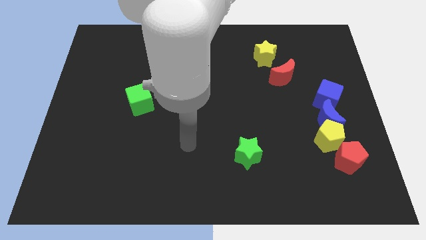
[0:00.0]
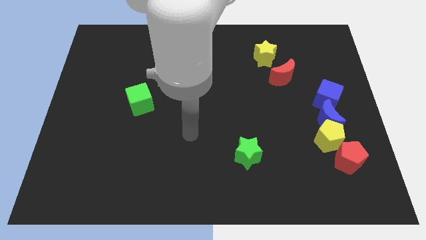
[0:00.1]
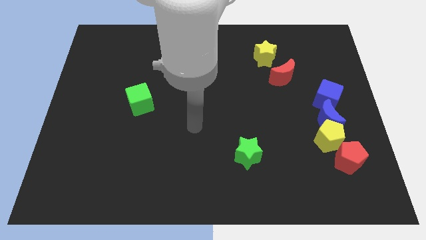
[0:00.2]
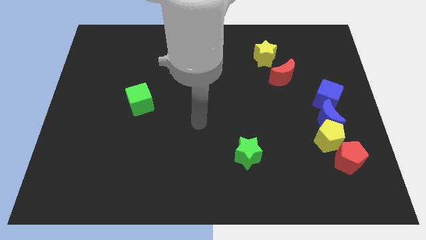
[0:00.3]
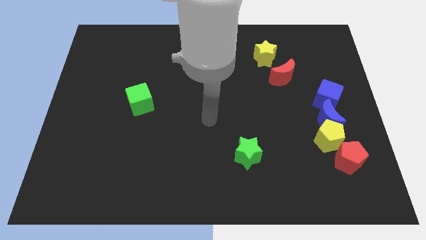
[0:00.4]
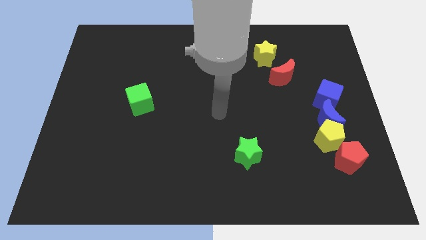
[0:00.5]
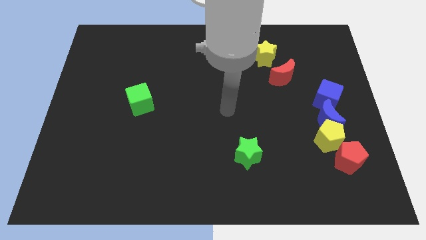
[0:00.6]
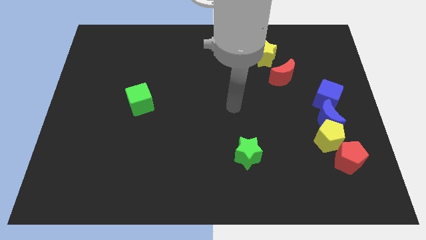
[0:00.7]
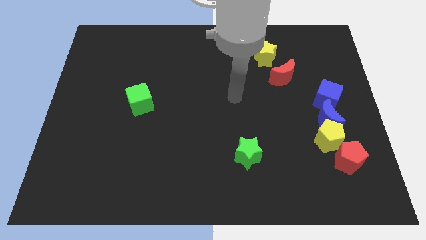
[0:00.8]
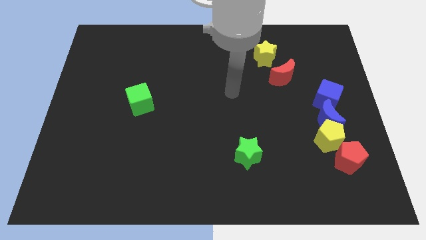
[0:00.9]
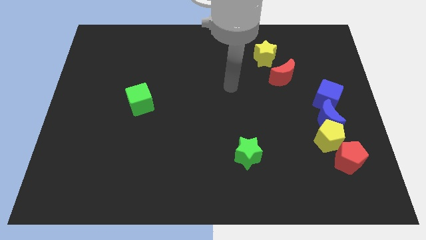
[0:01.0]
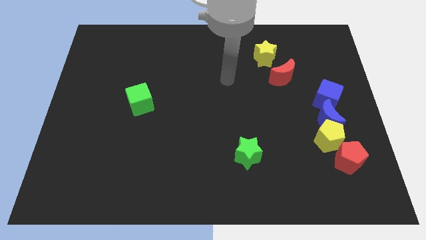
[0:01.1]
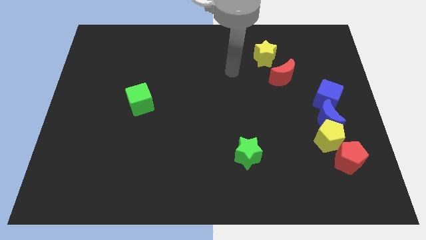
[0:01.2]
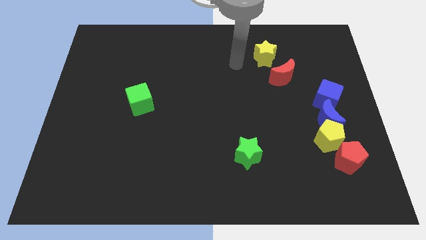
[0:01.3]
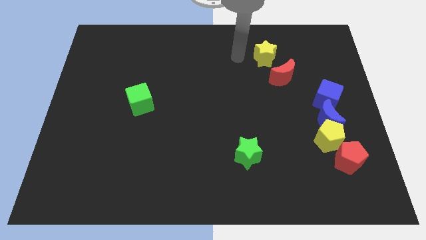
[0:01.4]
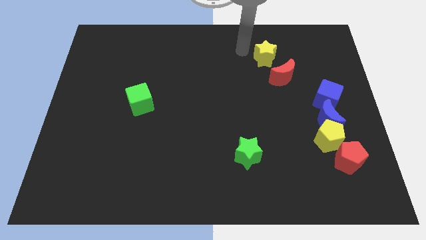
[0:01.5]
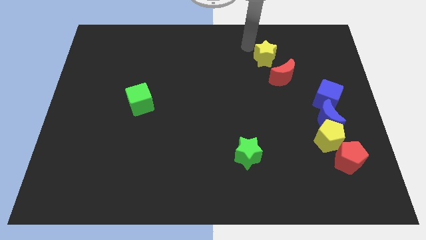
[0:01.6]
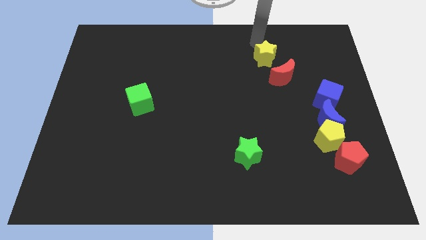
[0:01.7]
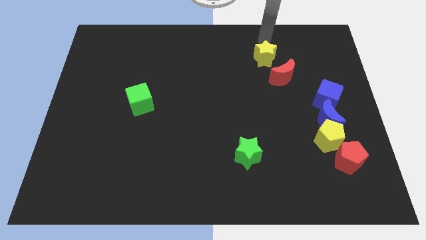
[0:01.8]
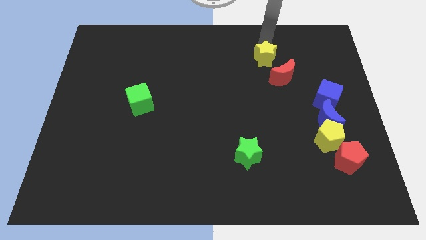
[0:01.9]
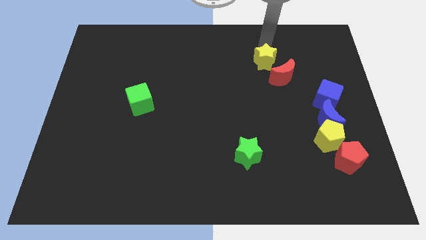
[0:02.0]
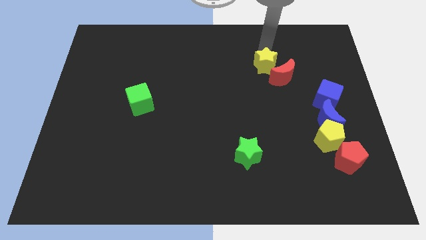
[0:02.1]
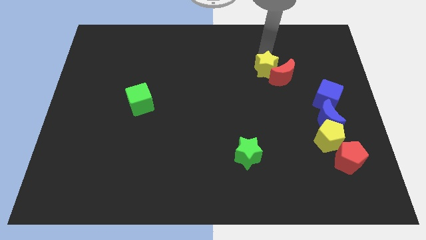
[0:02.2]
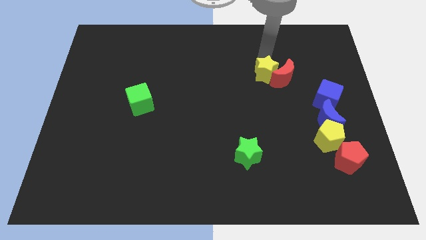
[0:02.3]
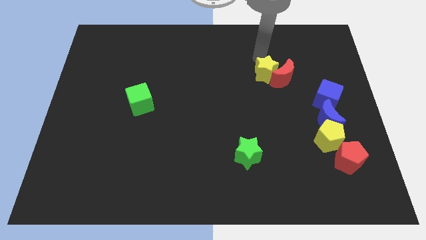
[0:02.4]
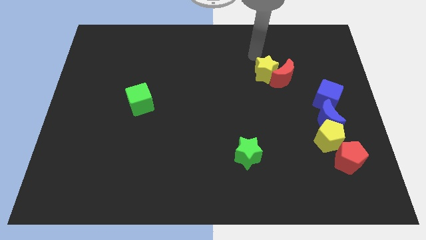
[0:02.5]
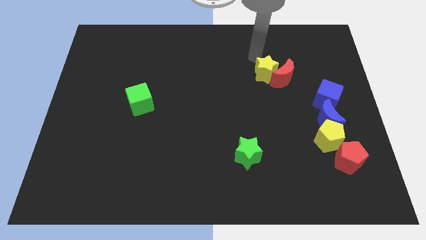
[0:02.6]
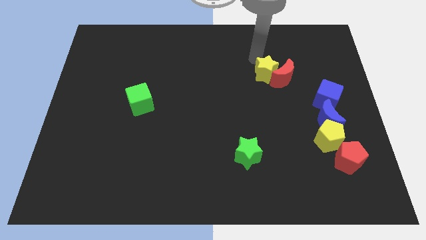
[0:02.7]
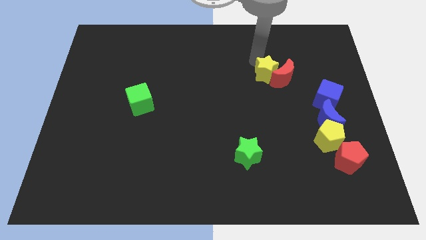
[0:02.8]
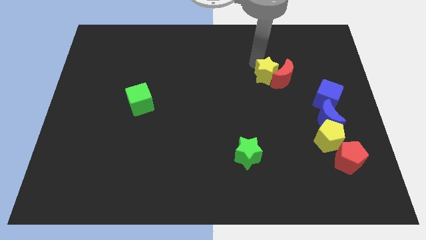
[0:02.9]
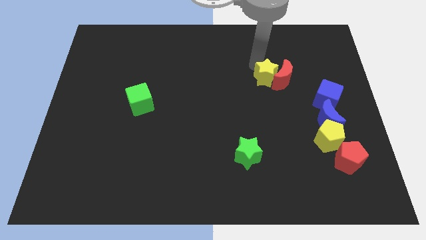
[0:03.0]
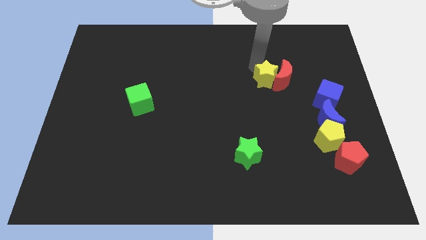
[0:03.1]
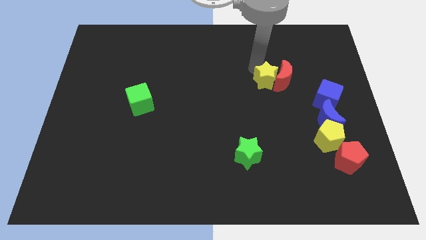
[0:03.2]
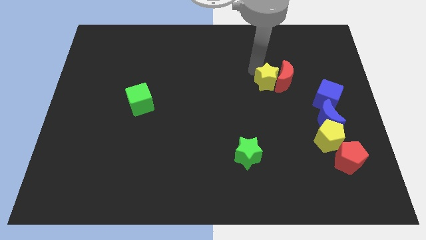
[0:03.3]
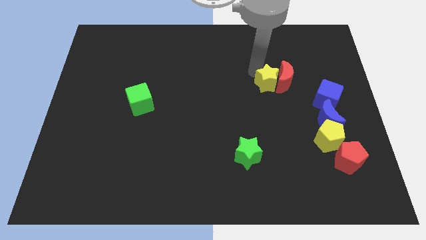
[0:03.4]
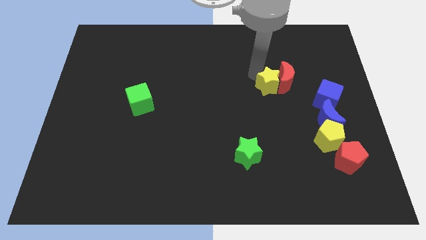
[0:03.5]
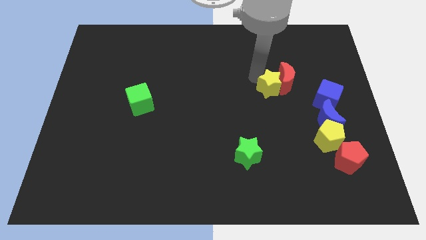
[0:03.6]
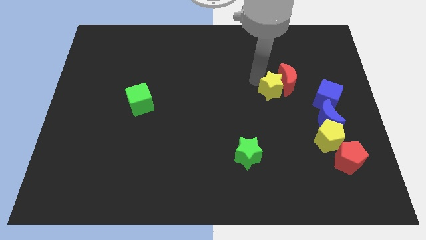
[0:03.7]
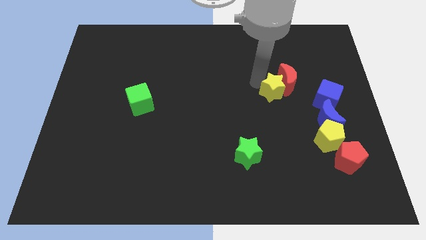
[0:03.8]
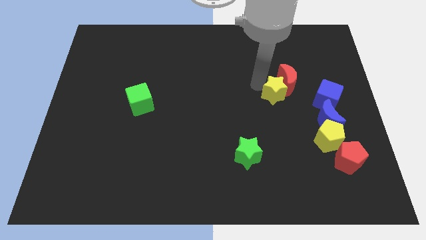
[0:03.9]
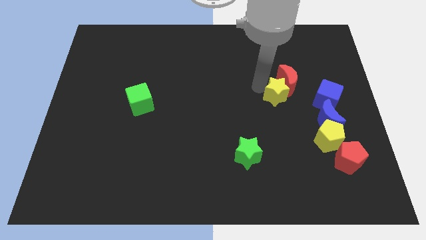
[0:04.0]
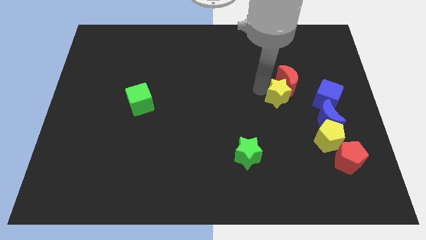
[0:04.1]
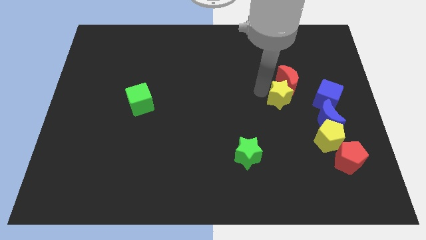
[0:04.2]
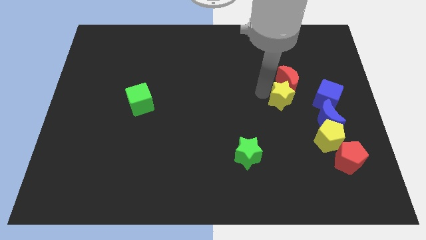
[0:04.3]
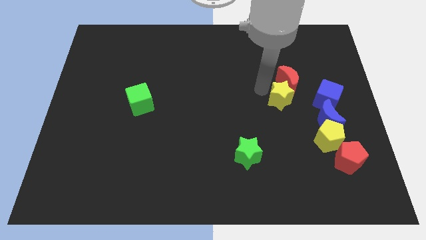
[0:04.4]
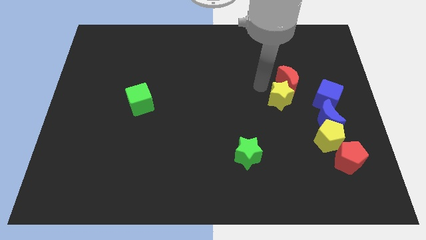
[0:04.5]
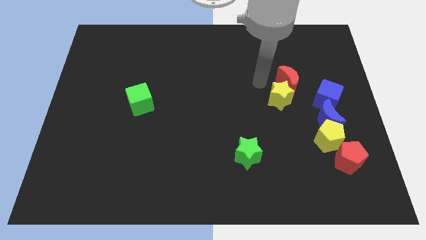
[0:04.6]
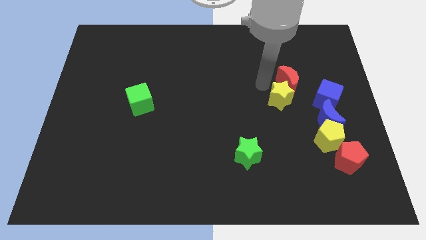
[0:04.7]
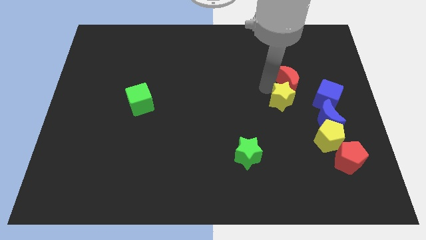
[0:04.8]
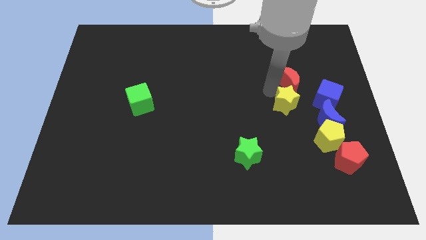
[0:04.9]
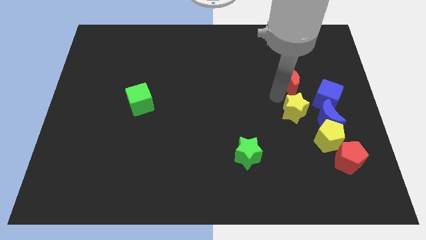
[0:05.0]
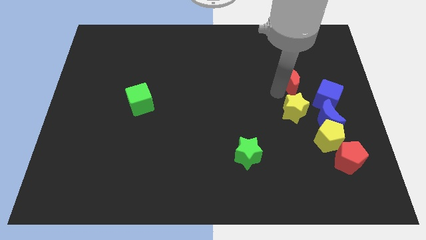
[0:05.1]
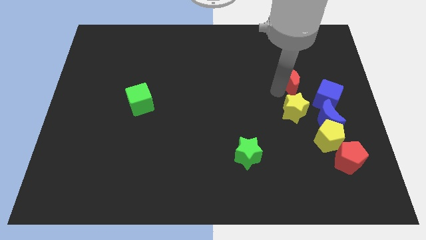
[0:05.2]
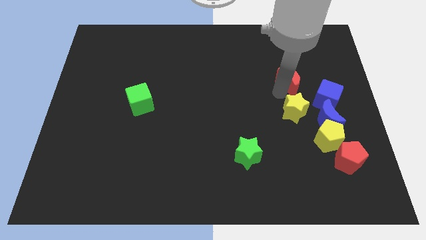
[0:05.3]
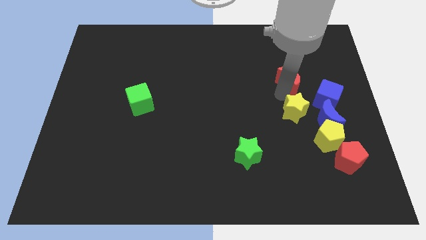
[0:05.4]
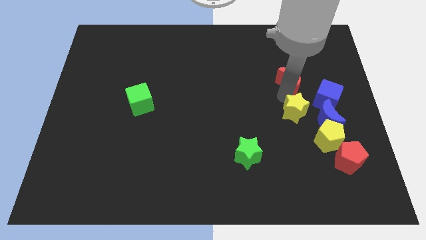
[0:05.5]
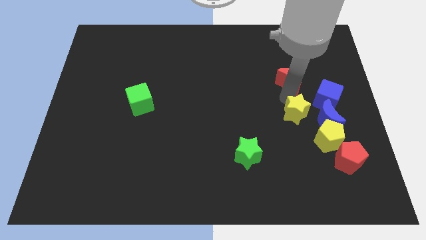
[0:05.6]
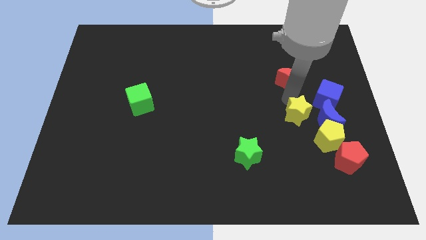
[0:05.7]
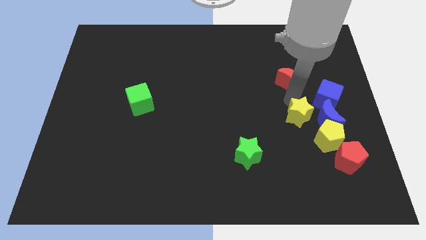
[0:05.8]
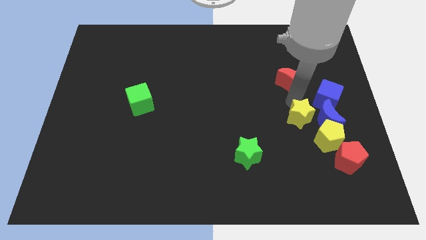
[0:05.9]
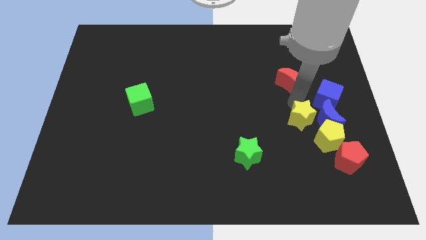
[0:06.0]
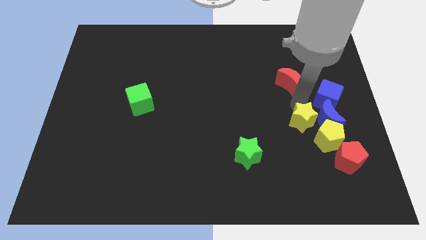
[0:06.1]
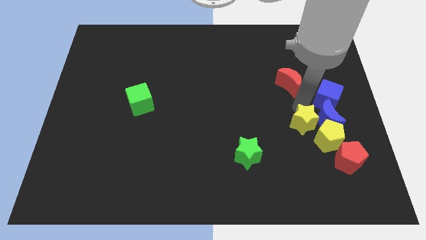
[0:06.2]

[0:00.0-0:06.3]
put the yellow star to the top left side of the red pentagon
